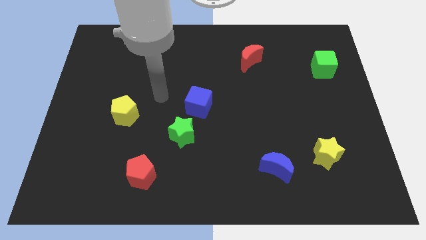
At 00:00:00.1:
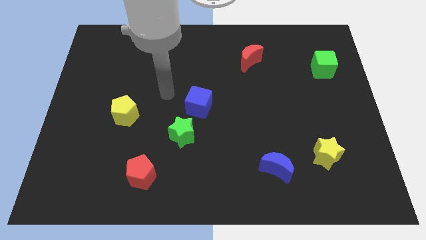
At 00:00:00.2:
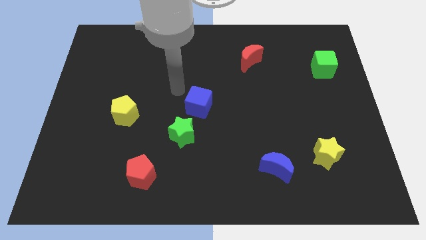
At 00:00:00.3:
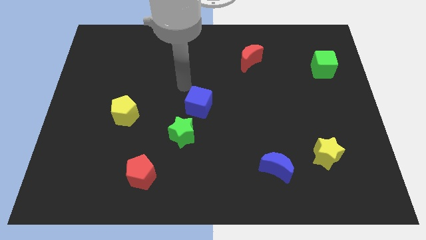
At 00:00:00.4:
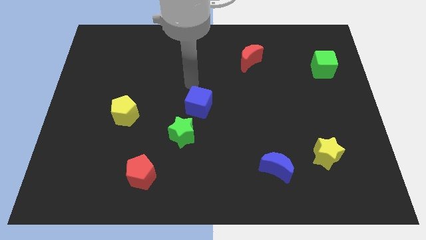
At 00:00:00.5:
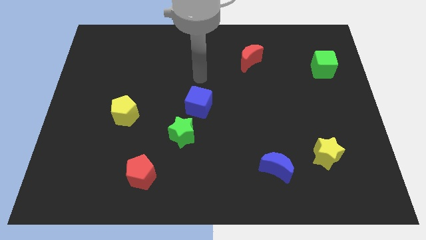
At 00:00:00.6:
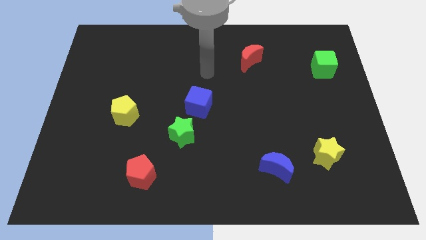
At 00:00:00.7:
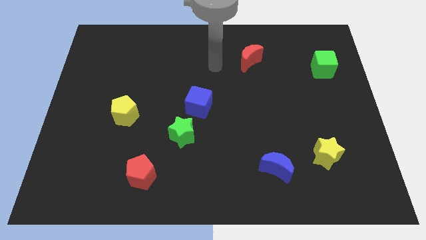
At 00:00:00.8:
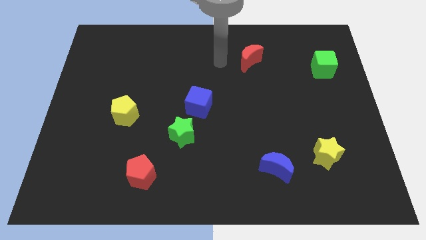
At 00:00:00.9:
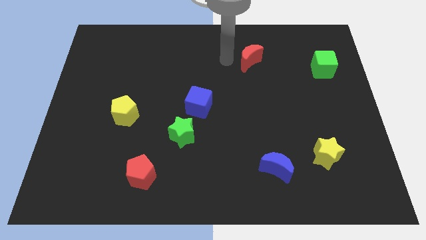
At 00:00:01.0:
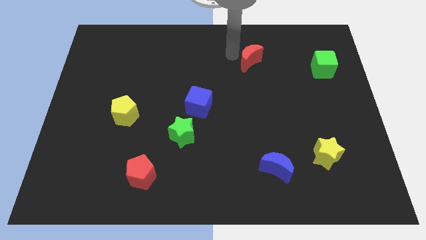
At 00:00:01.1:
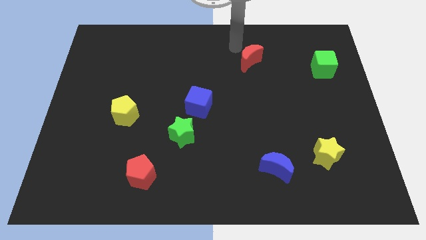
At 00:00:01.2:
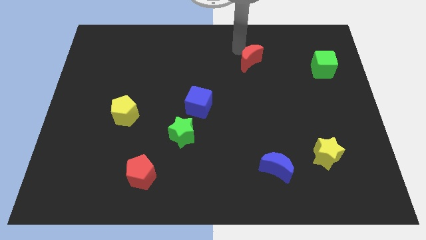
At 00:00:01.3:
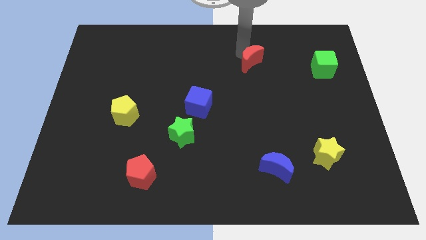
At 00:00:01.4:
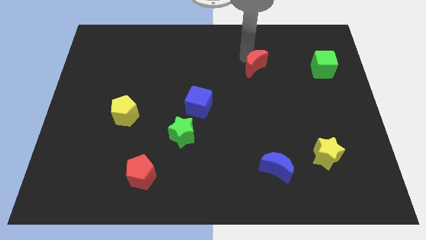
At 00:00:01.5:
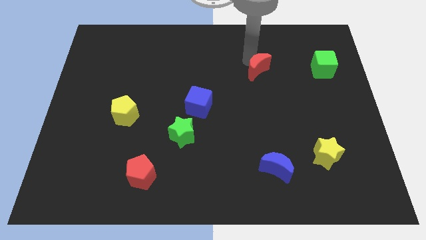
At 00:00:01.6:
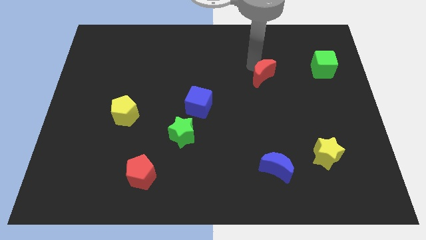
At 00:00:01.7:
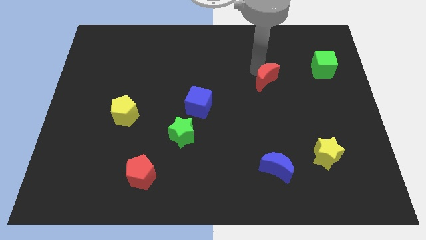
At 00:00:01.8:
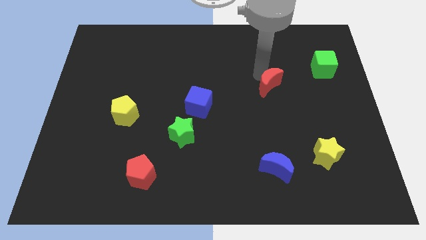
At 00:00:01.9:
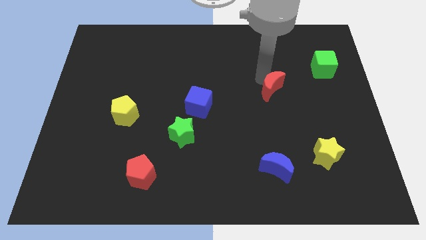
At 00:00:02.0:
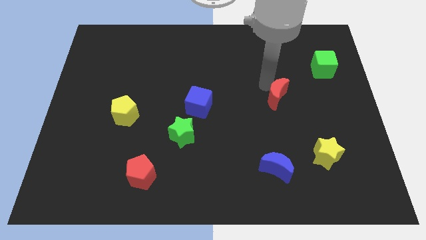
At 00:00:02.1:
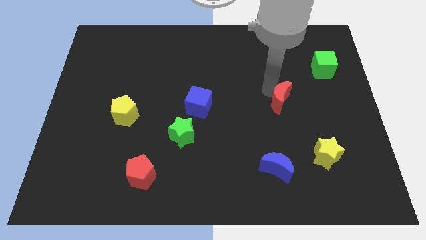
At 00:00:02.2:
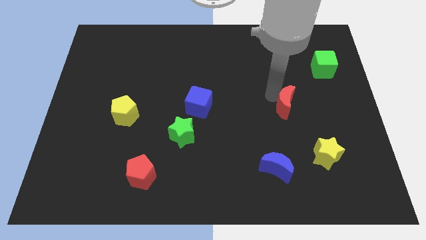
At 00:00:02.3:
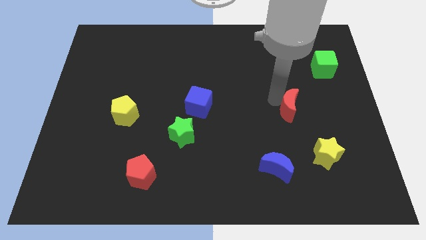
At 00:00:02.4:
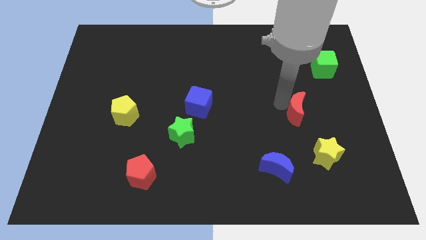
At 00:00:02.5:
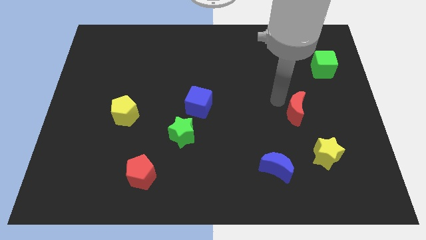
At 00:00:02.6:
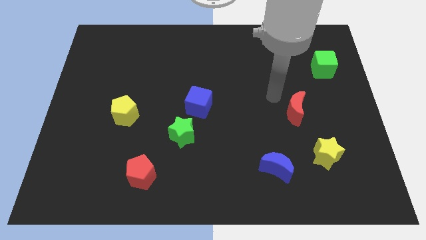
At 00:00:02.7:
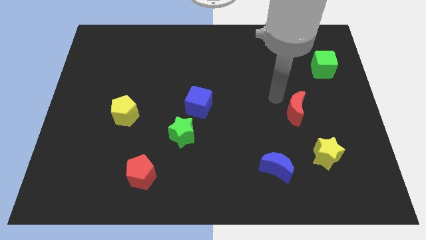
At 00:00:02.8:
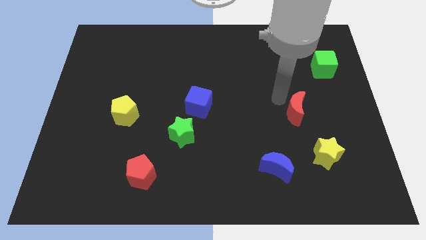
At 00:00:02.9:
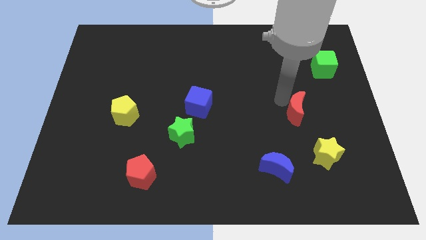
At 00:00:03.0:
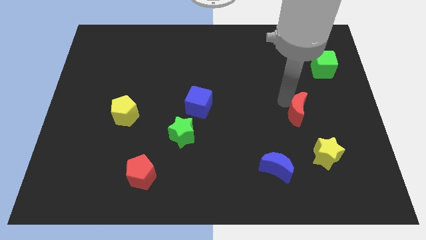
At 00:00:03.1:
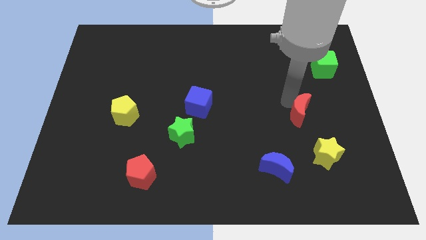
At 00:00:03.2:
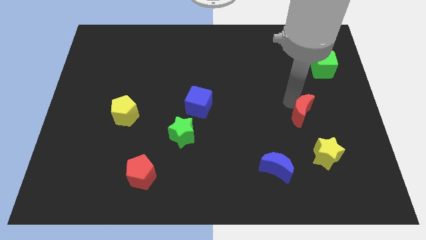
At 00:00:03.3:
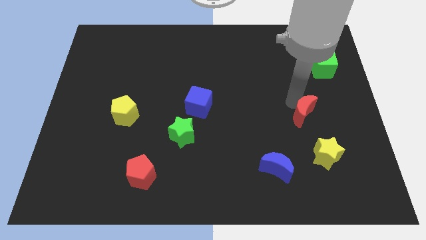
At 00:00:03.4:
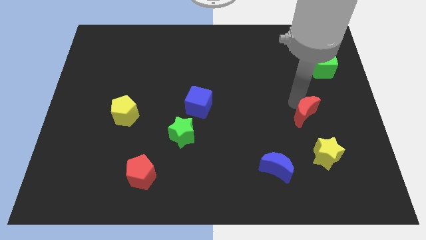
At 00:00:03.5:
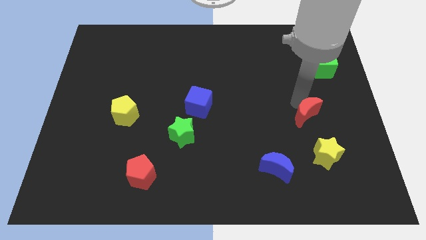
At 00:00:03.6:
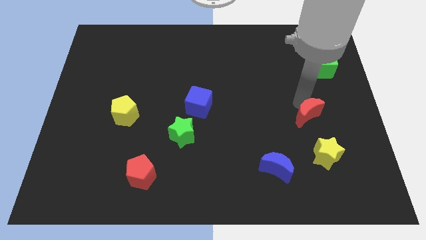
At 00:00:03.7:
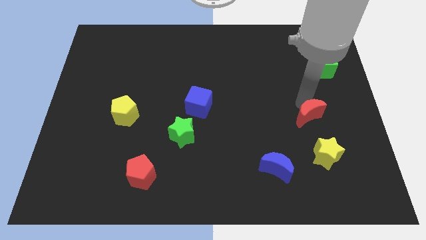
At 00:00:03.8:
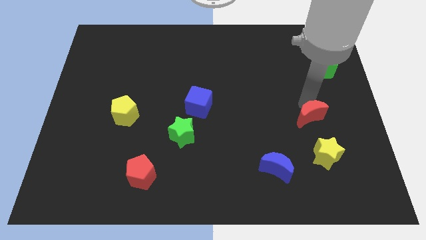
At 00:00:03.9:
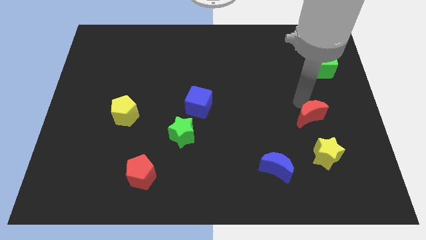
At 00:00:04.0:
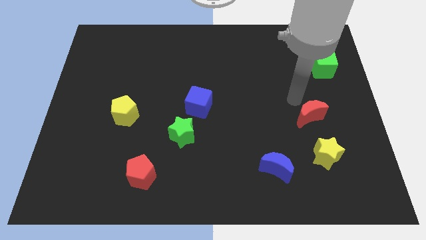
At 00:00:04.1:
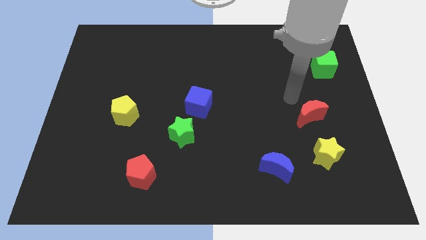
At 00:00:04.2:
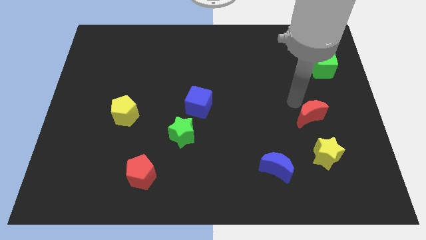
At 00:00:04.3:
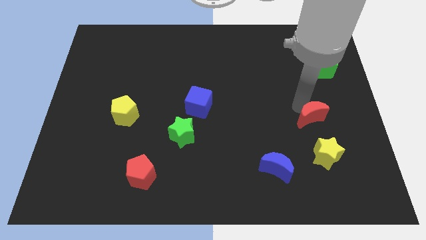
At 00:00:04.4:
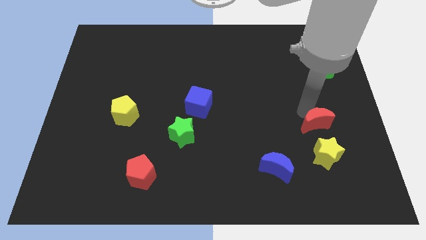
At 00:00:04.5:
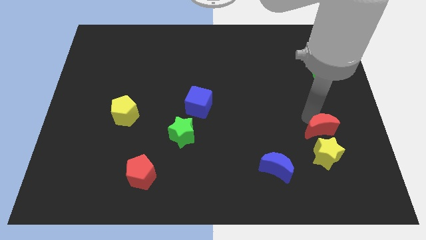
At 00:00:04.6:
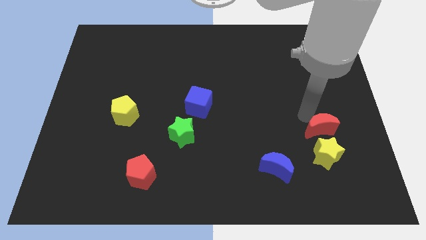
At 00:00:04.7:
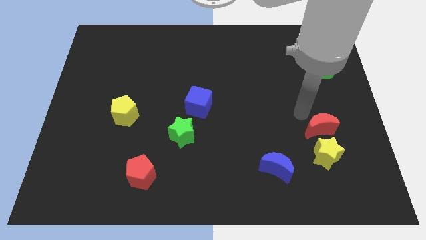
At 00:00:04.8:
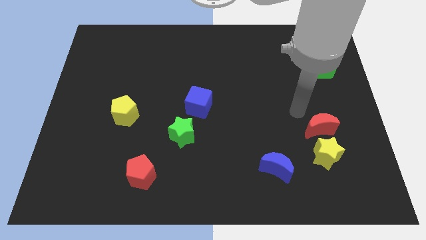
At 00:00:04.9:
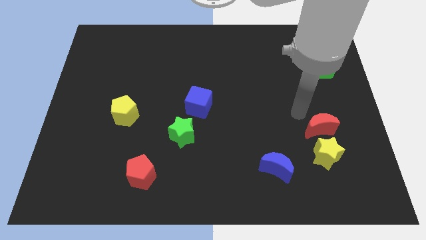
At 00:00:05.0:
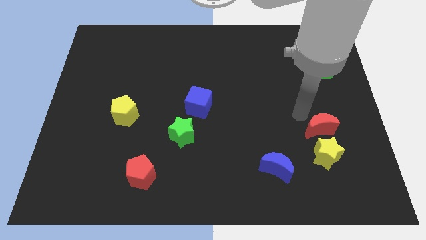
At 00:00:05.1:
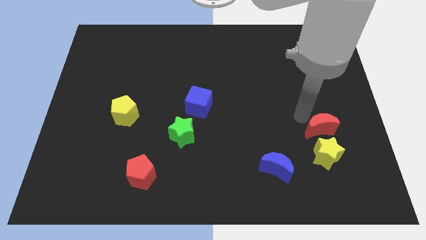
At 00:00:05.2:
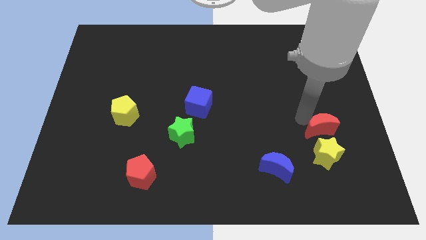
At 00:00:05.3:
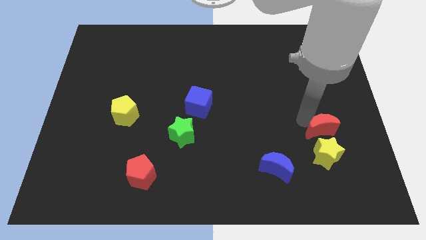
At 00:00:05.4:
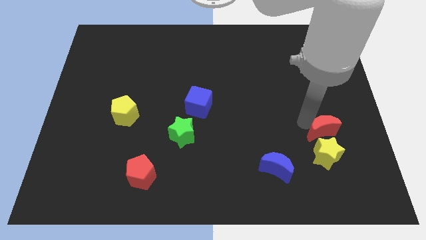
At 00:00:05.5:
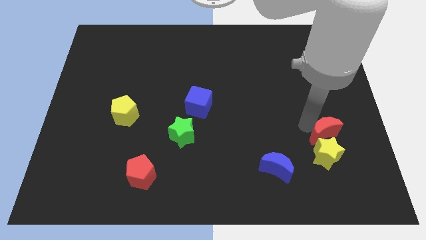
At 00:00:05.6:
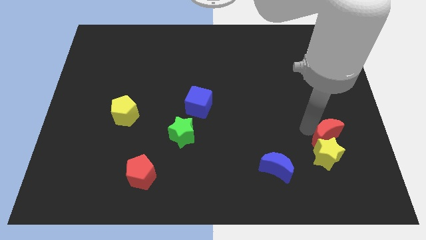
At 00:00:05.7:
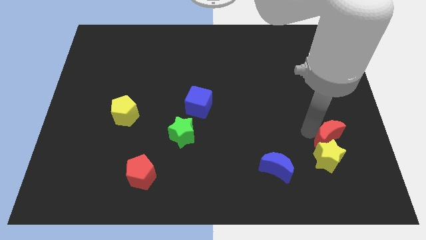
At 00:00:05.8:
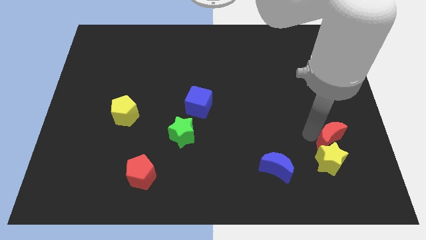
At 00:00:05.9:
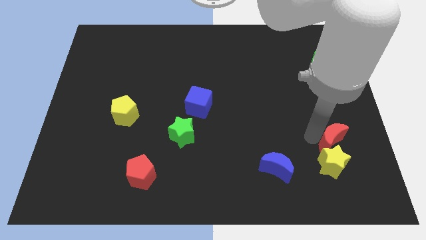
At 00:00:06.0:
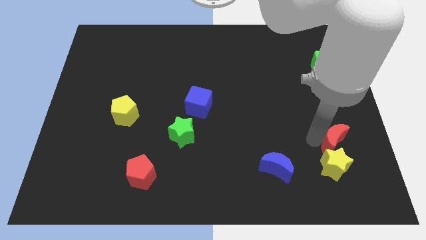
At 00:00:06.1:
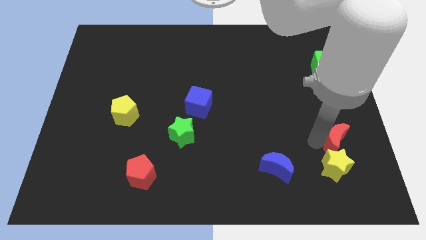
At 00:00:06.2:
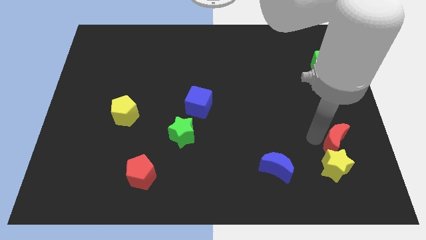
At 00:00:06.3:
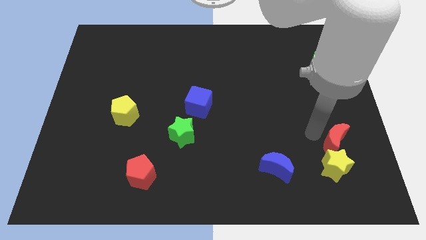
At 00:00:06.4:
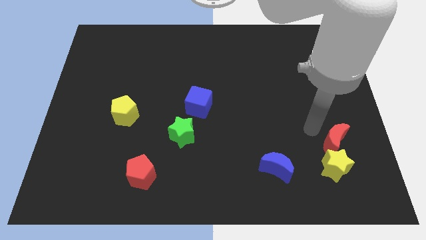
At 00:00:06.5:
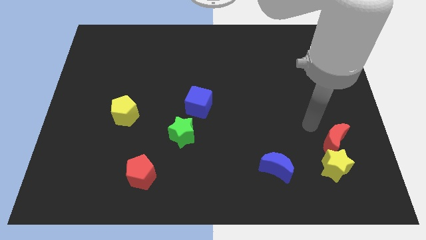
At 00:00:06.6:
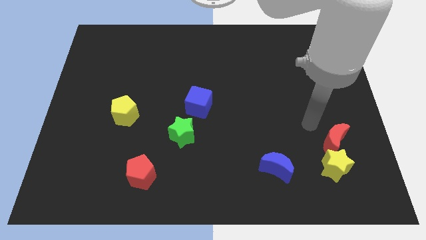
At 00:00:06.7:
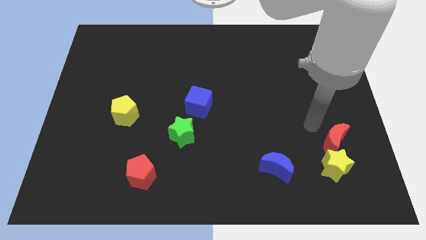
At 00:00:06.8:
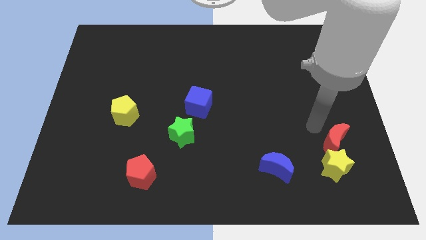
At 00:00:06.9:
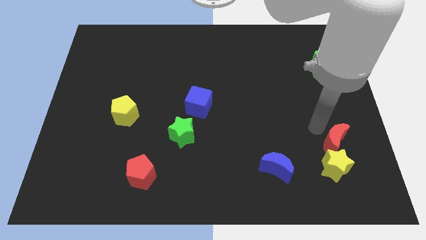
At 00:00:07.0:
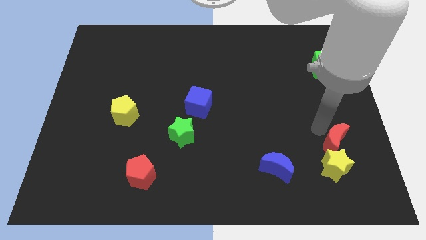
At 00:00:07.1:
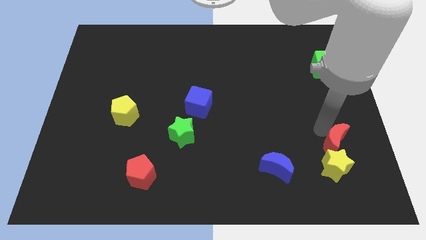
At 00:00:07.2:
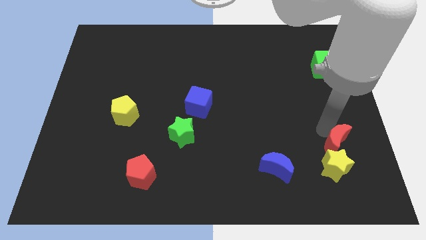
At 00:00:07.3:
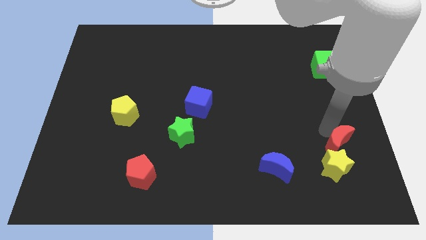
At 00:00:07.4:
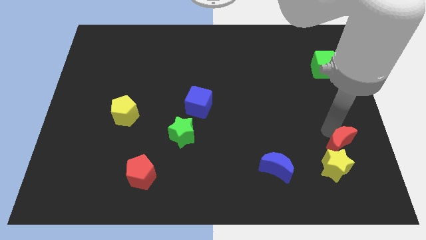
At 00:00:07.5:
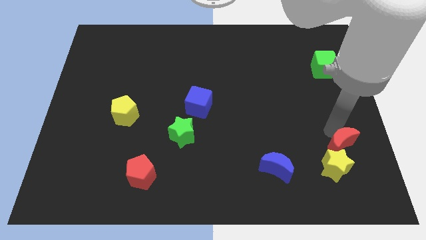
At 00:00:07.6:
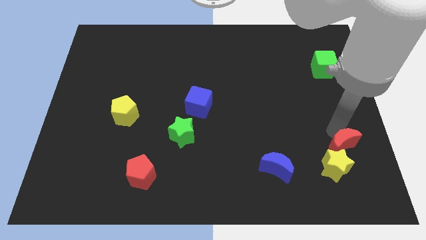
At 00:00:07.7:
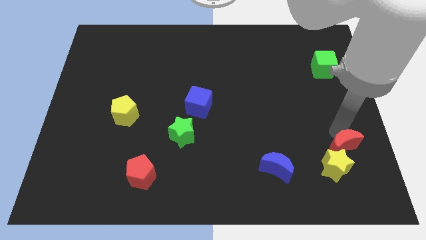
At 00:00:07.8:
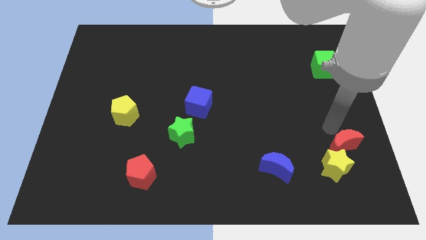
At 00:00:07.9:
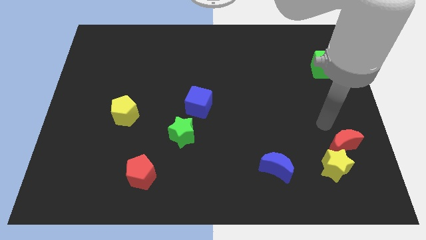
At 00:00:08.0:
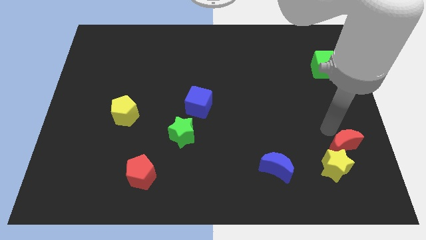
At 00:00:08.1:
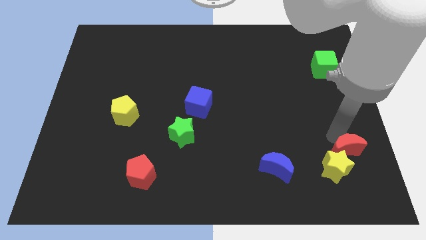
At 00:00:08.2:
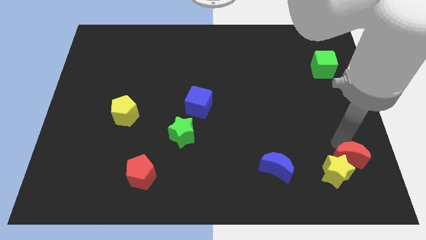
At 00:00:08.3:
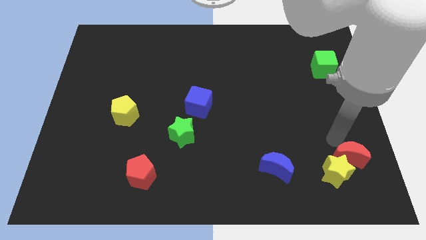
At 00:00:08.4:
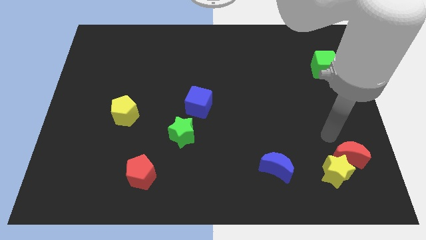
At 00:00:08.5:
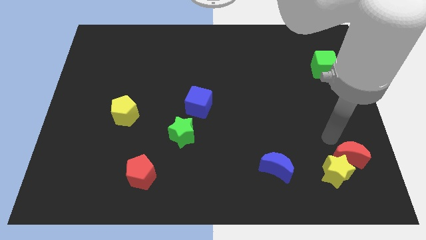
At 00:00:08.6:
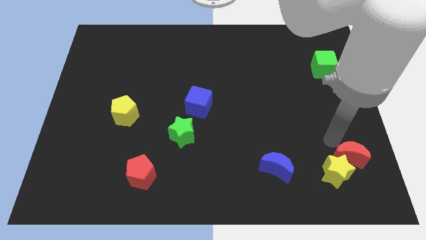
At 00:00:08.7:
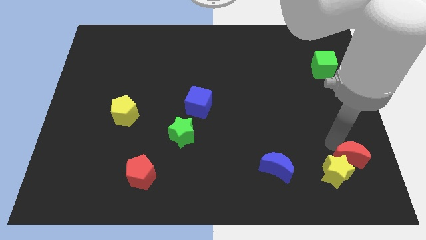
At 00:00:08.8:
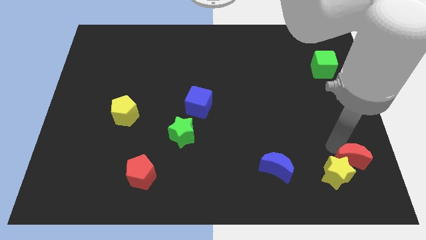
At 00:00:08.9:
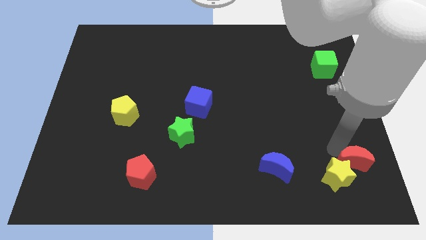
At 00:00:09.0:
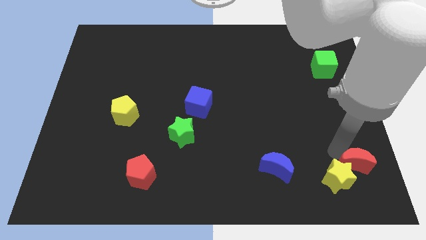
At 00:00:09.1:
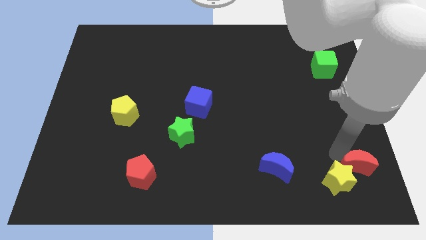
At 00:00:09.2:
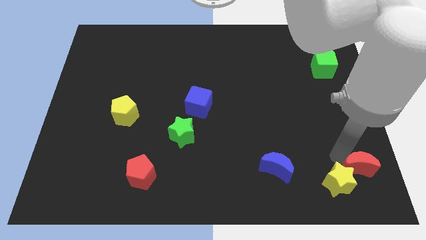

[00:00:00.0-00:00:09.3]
push the red moon to the bottom right corner
